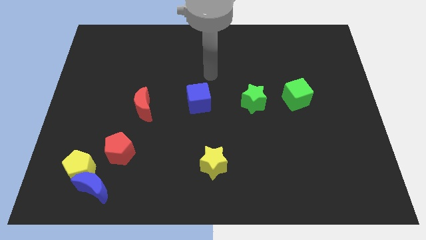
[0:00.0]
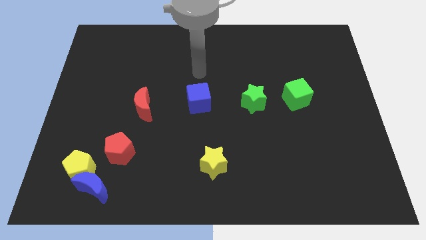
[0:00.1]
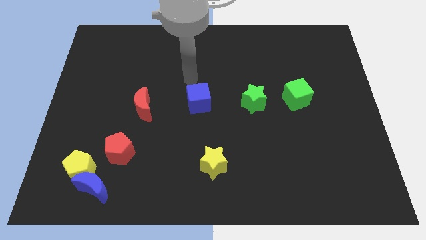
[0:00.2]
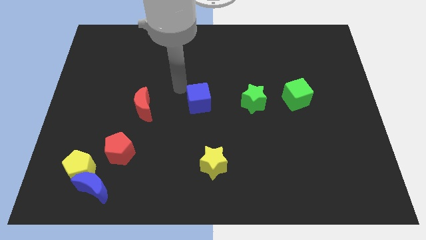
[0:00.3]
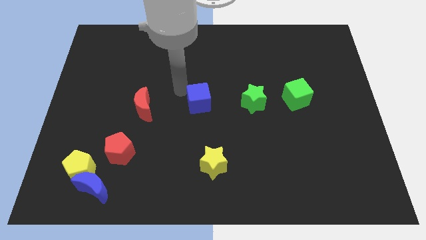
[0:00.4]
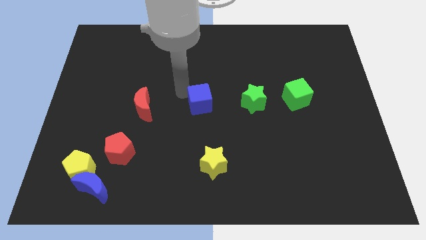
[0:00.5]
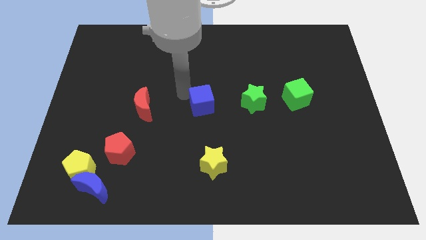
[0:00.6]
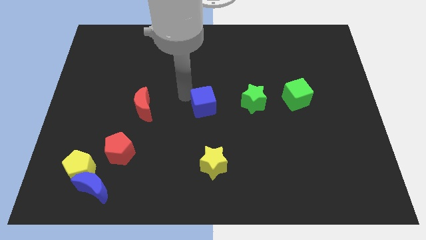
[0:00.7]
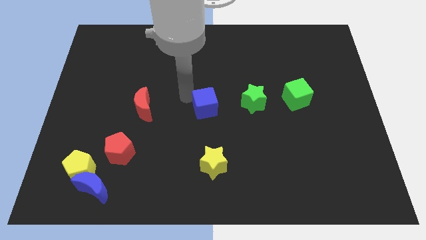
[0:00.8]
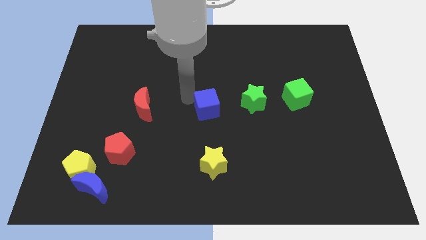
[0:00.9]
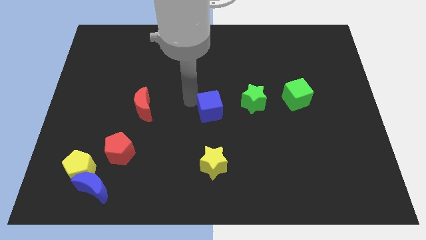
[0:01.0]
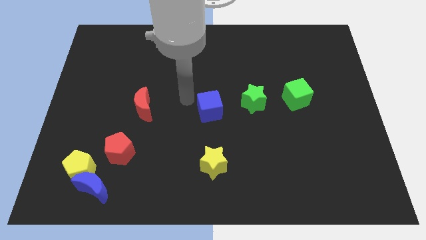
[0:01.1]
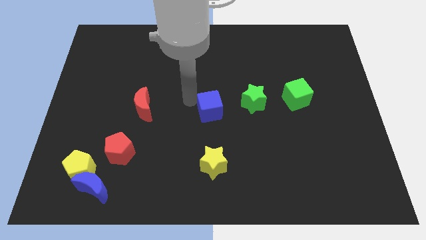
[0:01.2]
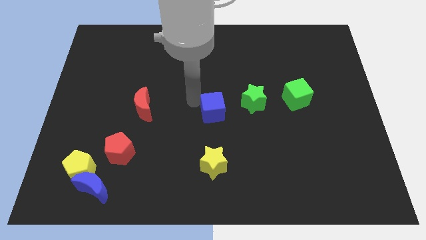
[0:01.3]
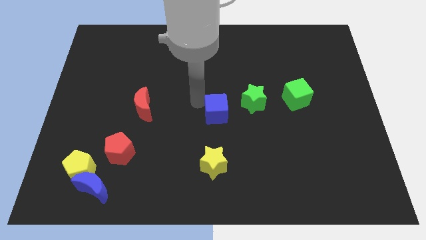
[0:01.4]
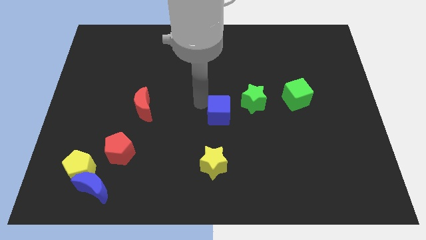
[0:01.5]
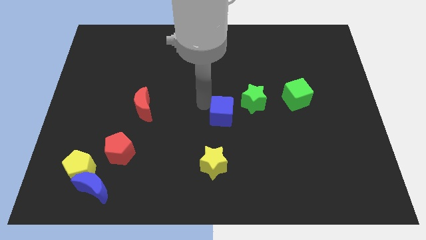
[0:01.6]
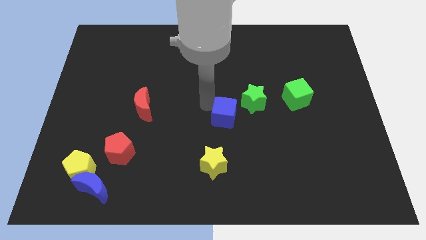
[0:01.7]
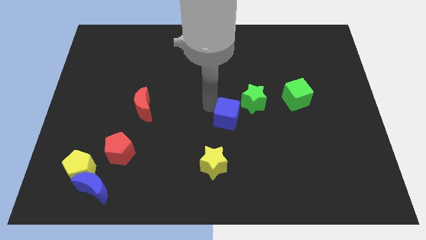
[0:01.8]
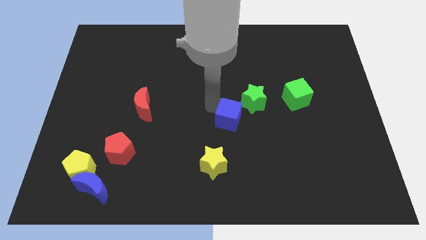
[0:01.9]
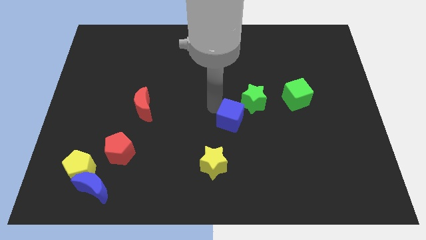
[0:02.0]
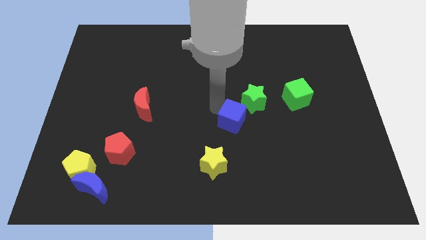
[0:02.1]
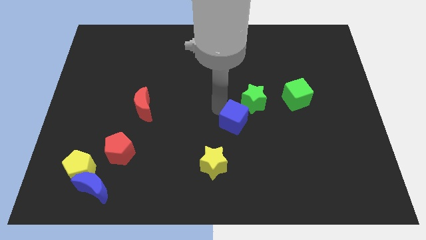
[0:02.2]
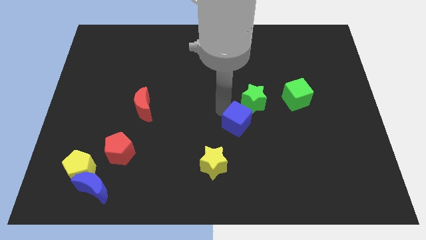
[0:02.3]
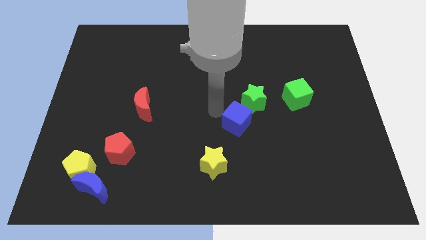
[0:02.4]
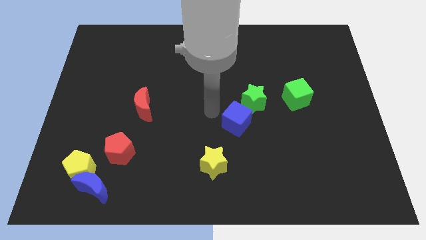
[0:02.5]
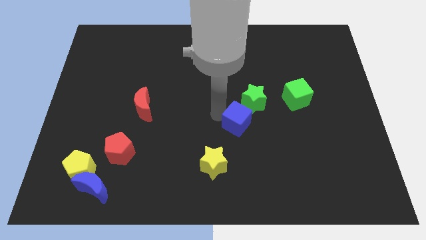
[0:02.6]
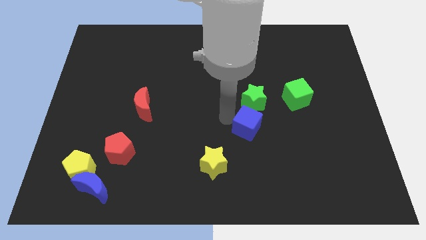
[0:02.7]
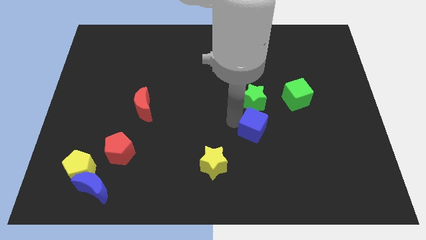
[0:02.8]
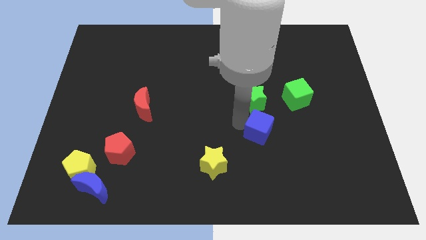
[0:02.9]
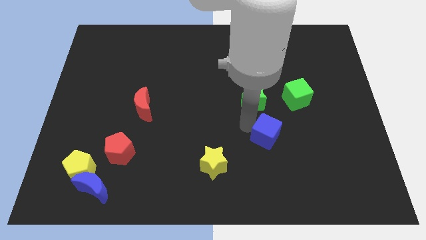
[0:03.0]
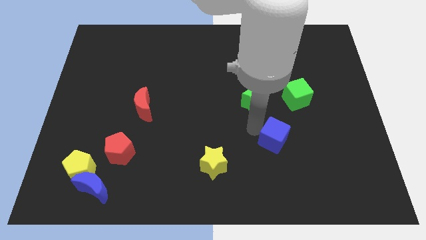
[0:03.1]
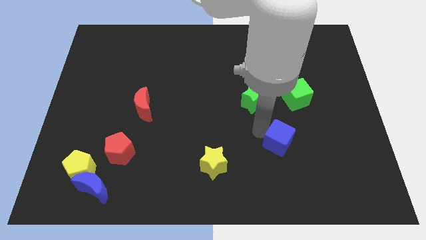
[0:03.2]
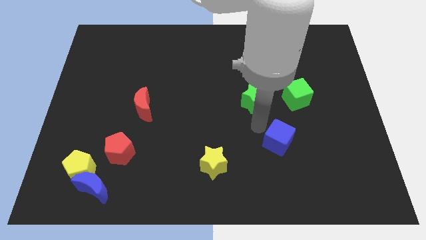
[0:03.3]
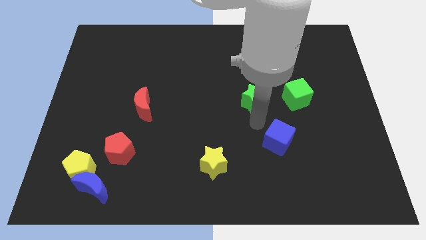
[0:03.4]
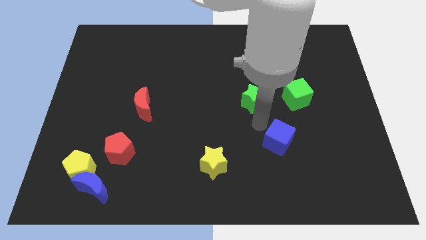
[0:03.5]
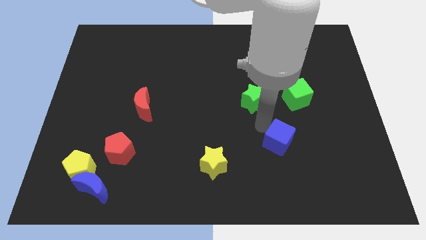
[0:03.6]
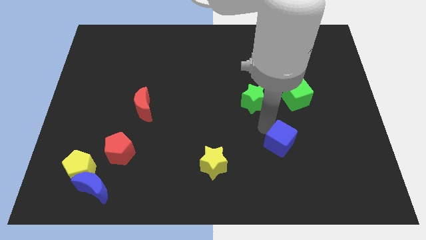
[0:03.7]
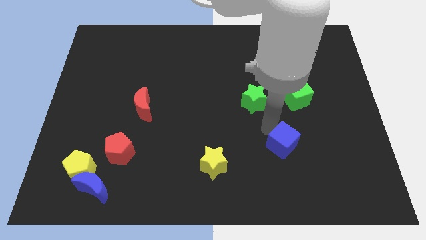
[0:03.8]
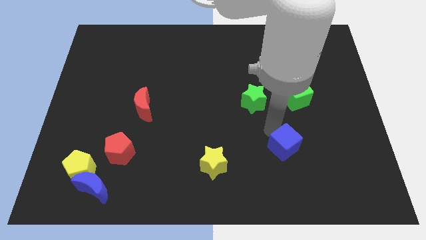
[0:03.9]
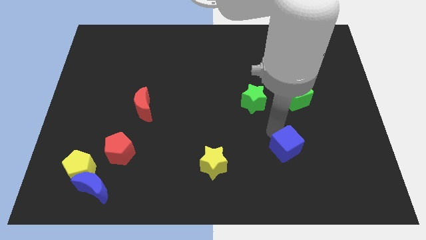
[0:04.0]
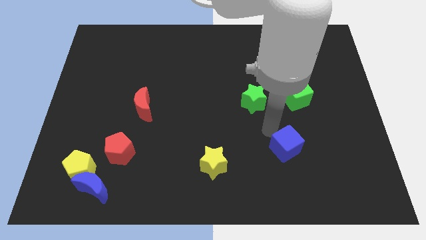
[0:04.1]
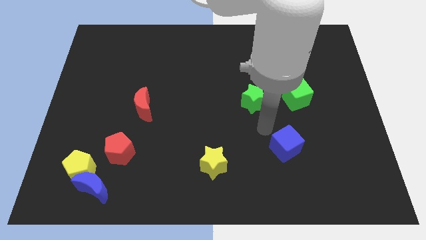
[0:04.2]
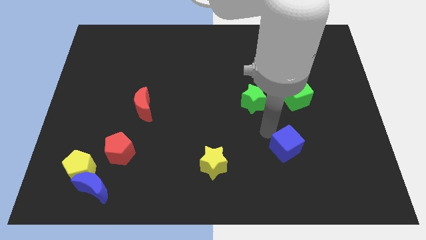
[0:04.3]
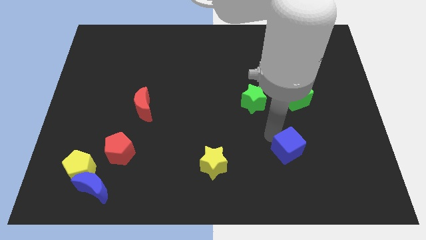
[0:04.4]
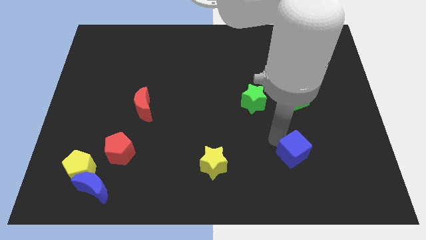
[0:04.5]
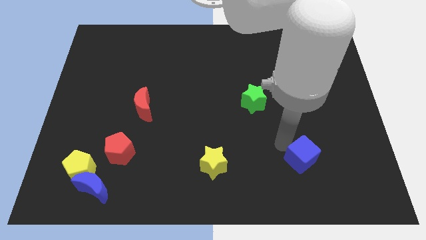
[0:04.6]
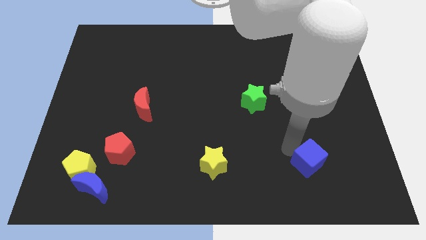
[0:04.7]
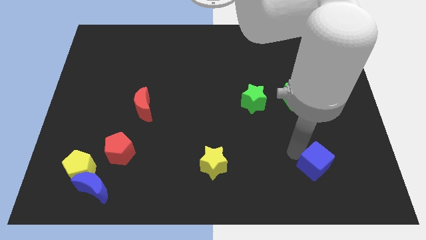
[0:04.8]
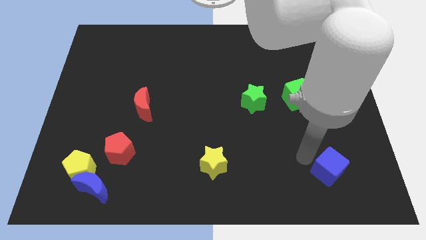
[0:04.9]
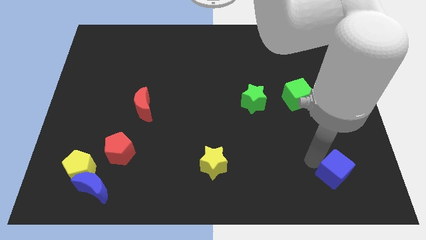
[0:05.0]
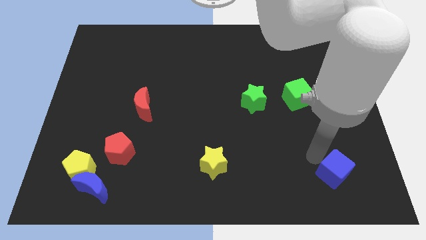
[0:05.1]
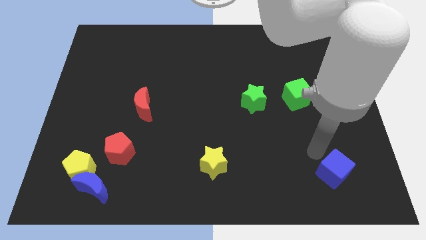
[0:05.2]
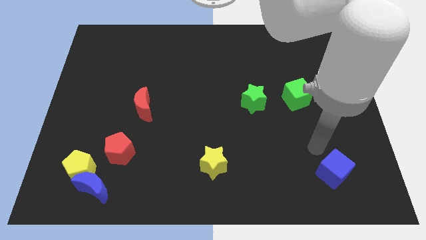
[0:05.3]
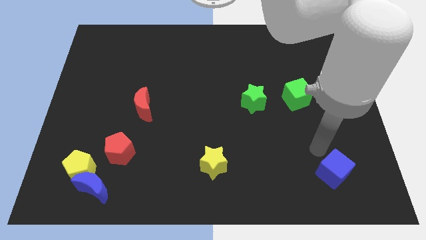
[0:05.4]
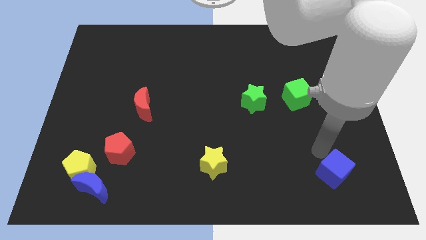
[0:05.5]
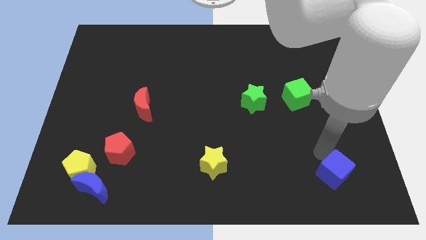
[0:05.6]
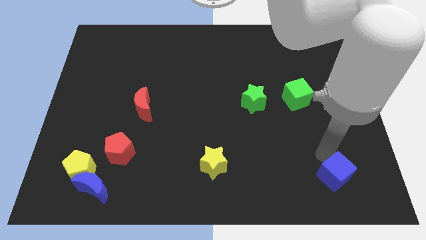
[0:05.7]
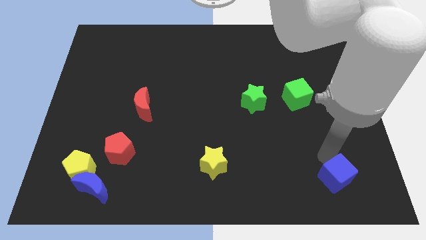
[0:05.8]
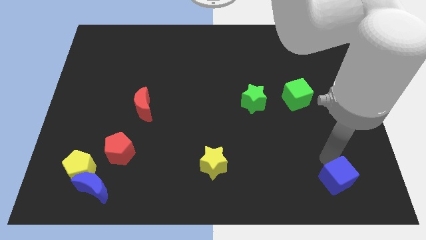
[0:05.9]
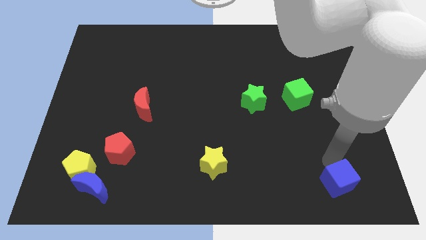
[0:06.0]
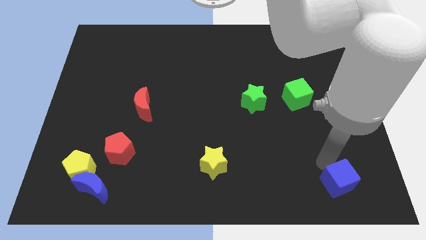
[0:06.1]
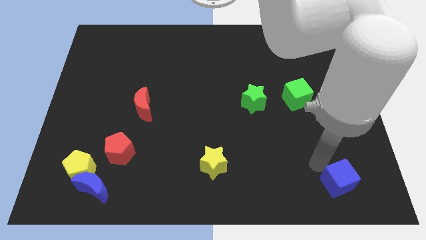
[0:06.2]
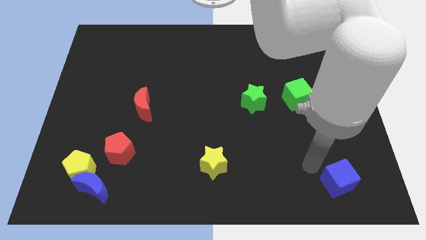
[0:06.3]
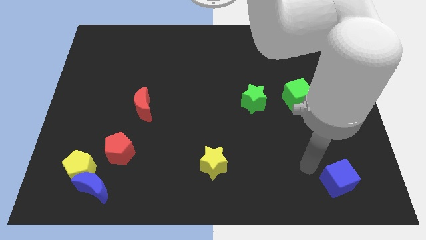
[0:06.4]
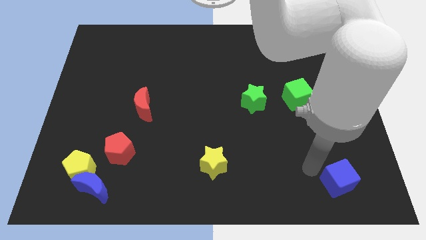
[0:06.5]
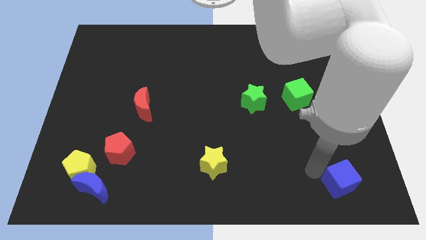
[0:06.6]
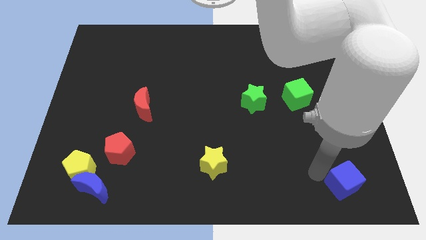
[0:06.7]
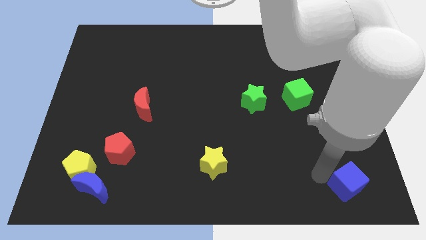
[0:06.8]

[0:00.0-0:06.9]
put the blue cube to the lower right corner
